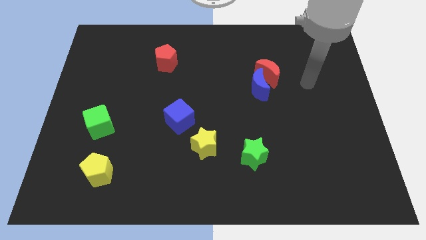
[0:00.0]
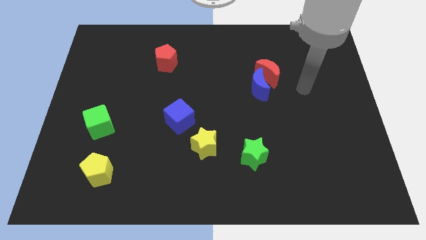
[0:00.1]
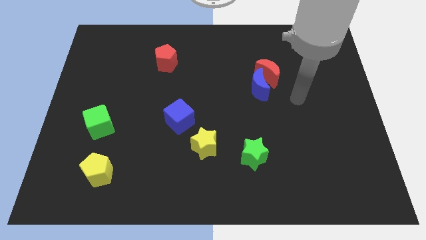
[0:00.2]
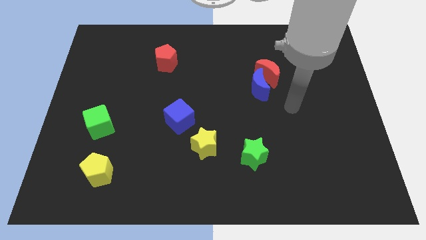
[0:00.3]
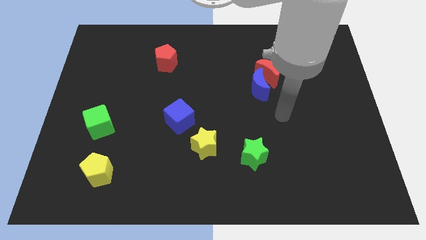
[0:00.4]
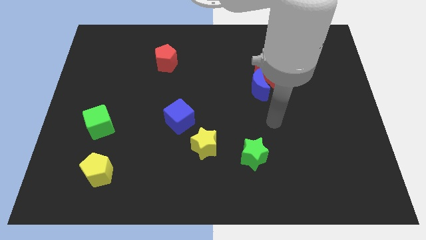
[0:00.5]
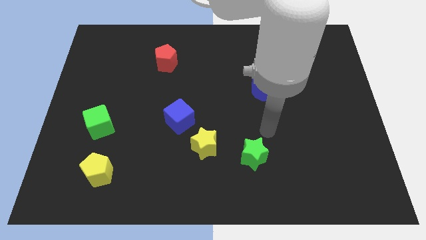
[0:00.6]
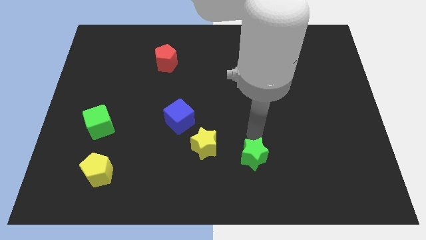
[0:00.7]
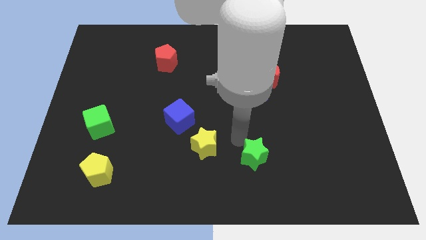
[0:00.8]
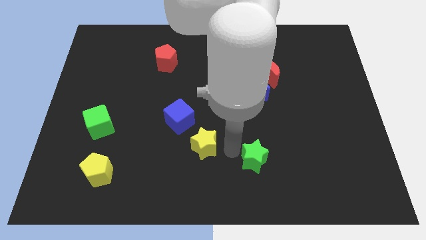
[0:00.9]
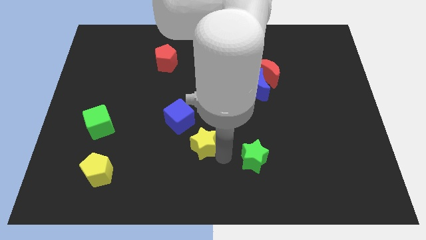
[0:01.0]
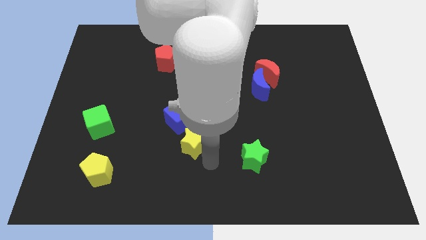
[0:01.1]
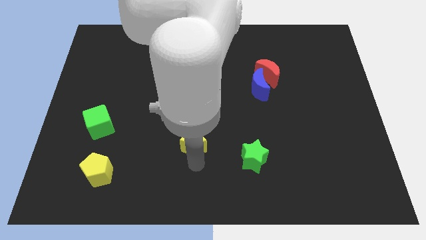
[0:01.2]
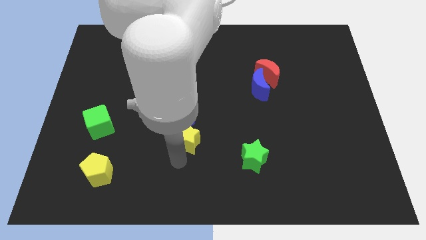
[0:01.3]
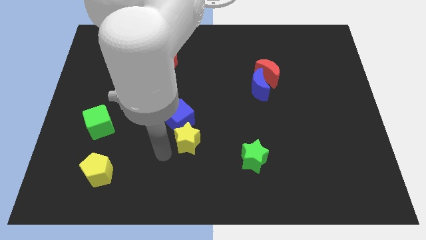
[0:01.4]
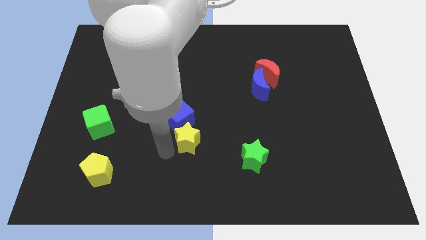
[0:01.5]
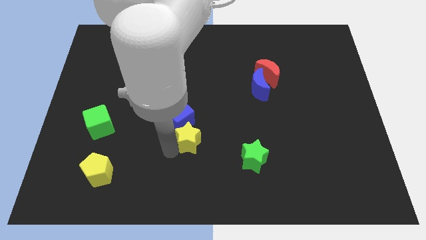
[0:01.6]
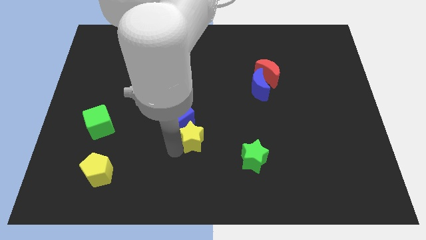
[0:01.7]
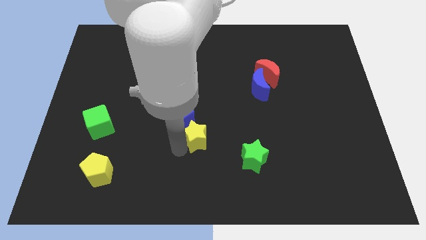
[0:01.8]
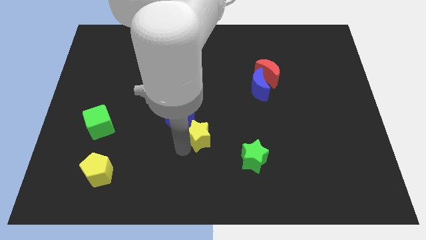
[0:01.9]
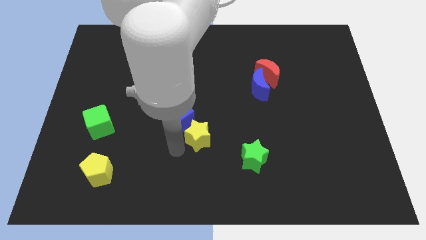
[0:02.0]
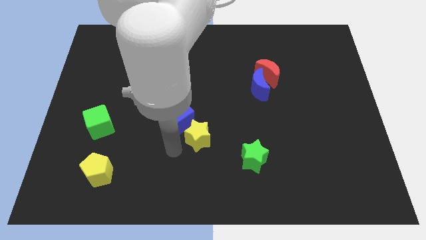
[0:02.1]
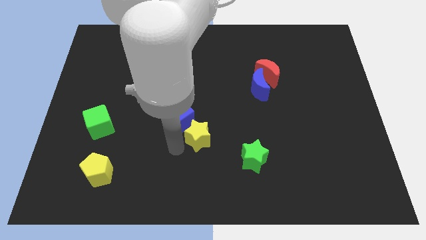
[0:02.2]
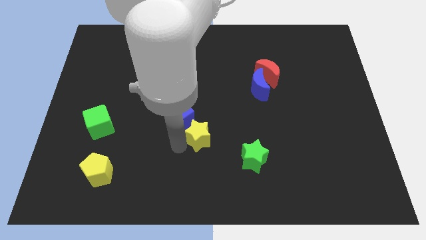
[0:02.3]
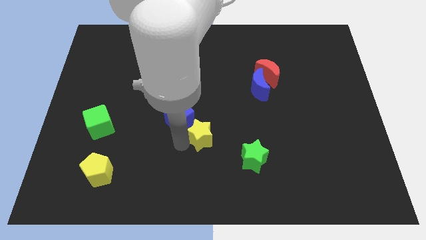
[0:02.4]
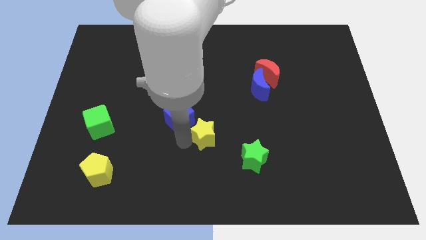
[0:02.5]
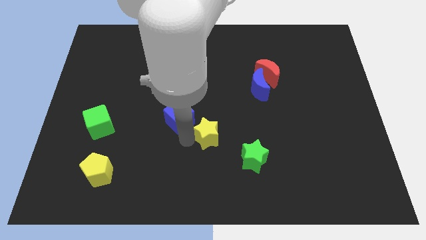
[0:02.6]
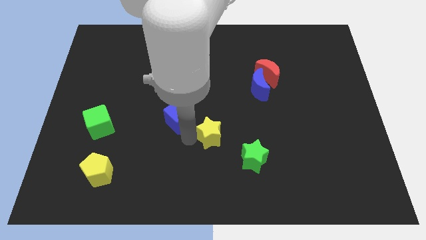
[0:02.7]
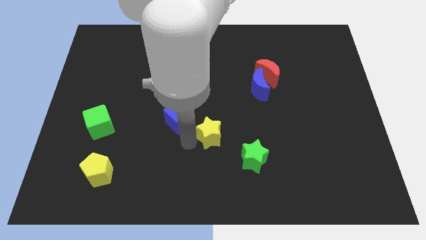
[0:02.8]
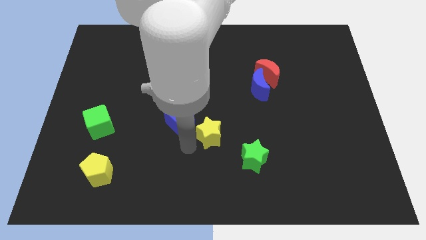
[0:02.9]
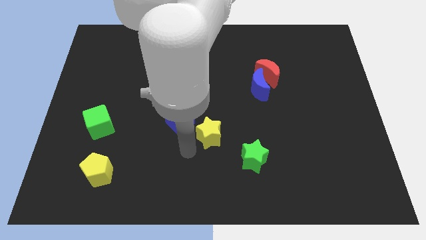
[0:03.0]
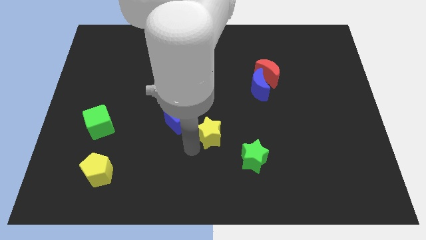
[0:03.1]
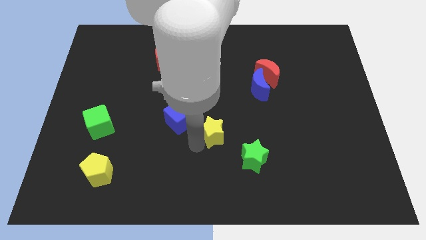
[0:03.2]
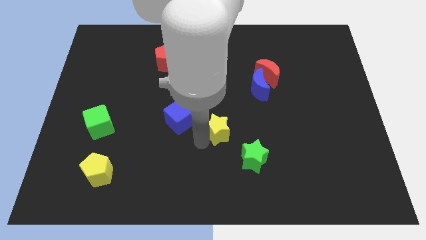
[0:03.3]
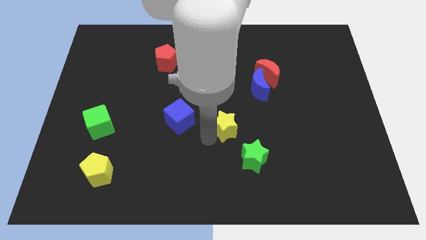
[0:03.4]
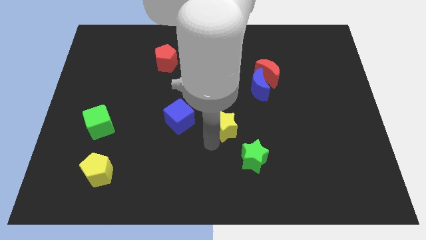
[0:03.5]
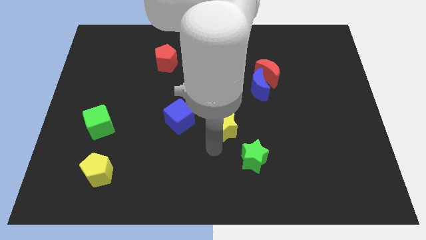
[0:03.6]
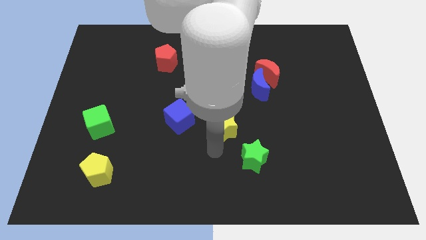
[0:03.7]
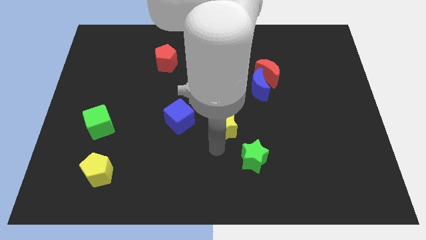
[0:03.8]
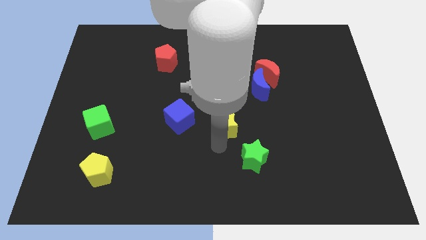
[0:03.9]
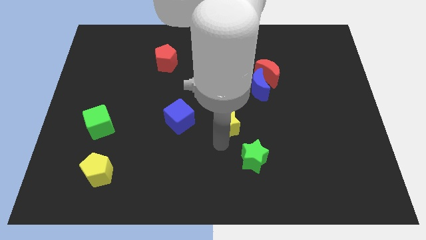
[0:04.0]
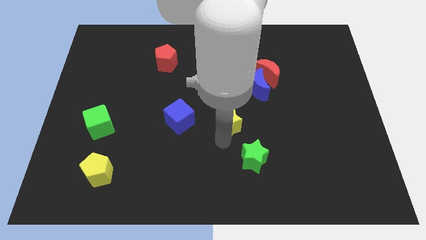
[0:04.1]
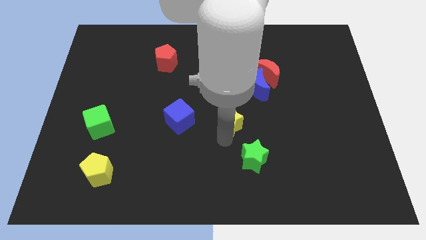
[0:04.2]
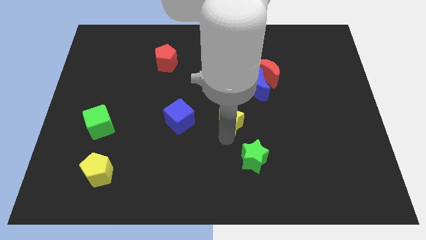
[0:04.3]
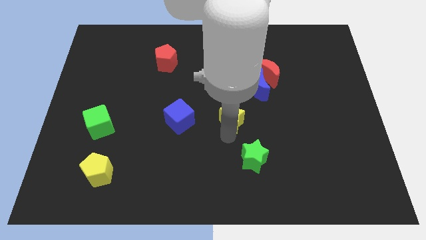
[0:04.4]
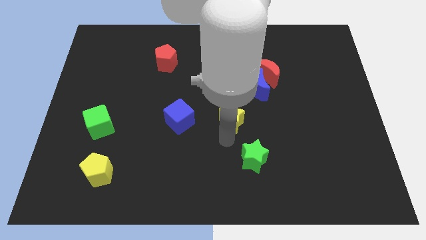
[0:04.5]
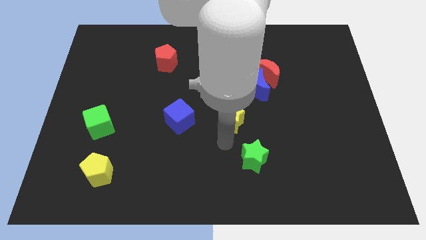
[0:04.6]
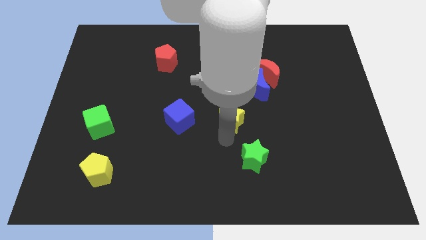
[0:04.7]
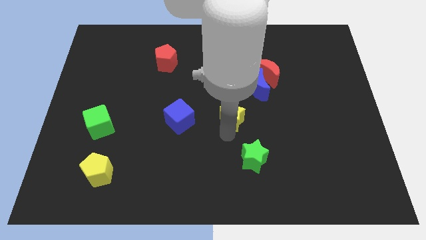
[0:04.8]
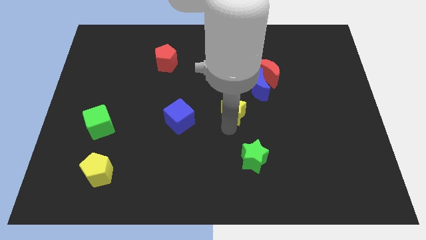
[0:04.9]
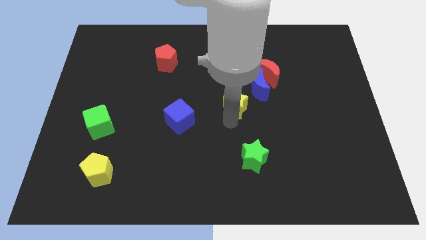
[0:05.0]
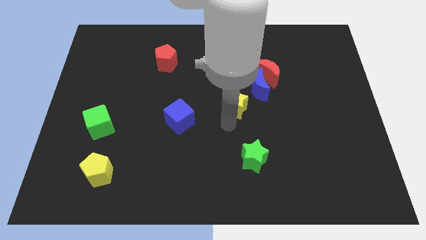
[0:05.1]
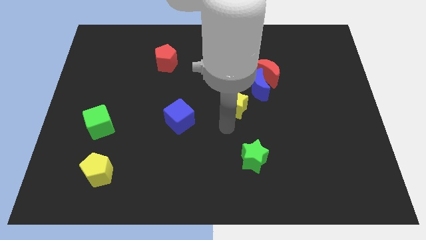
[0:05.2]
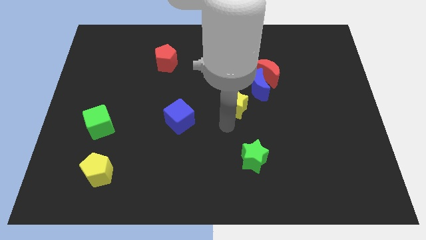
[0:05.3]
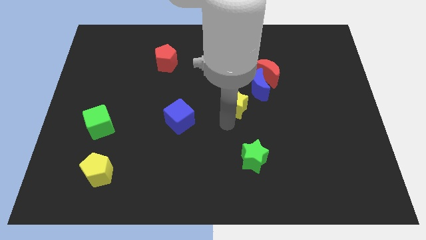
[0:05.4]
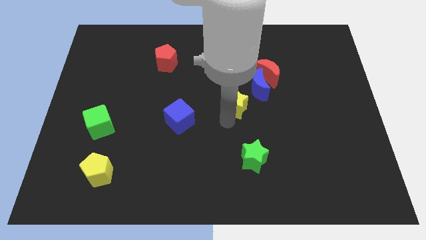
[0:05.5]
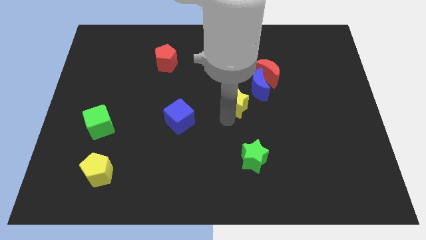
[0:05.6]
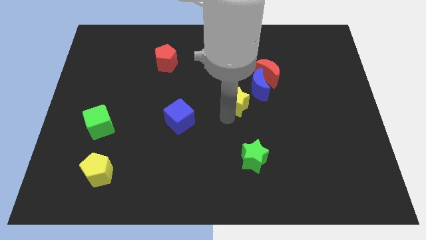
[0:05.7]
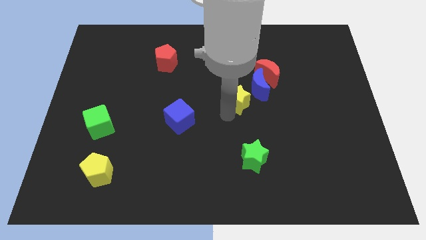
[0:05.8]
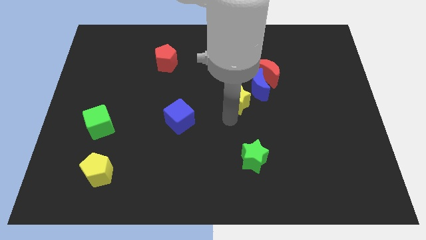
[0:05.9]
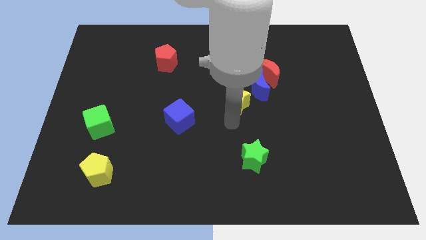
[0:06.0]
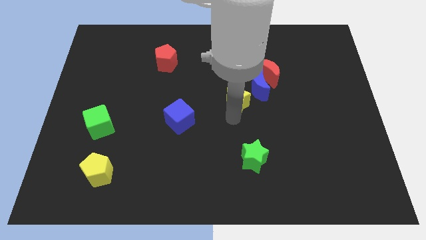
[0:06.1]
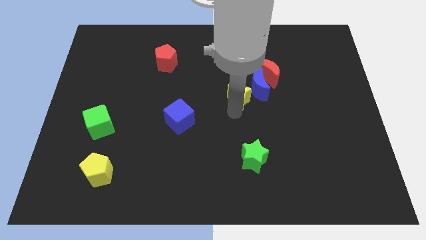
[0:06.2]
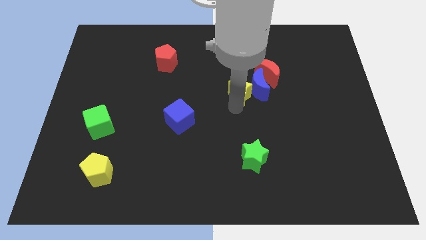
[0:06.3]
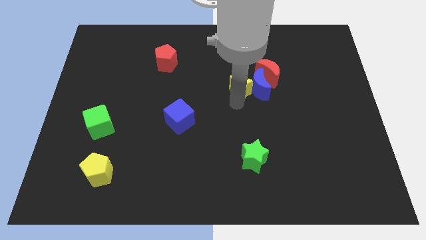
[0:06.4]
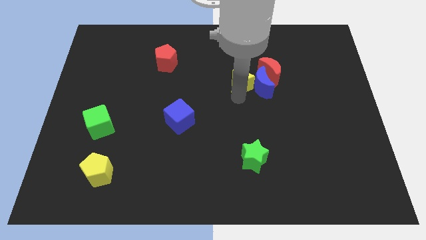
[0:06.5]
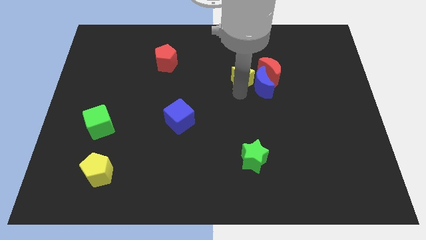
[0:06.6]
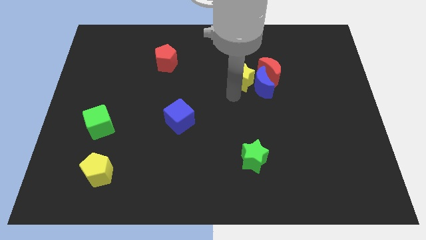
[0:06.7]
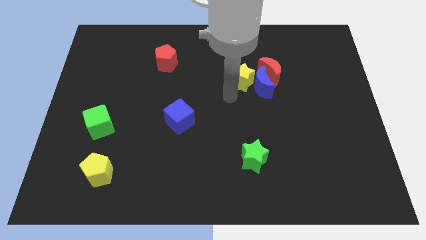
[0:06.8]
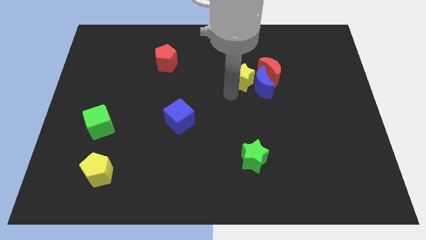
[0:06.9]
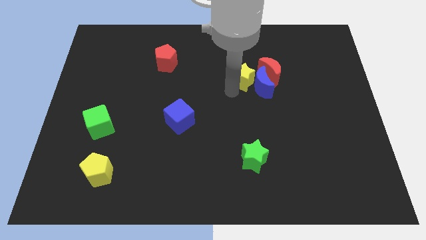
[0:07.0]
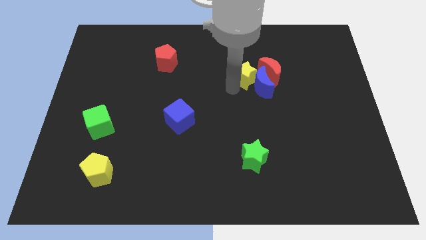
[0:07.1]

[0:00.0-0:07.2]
put the yellow star above the blue moon

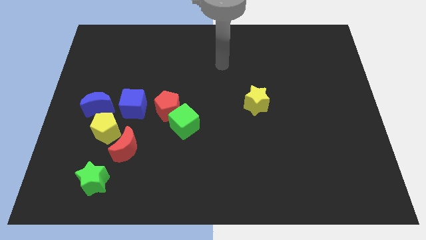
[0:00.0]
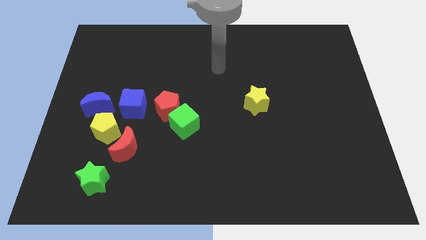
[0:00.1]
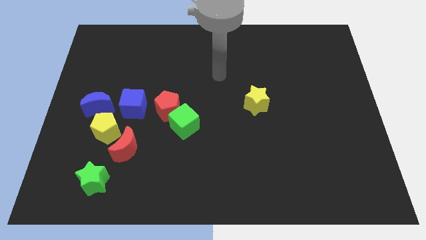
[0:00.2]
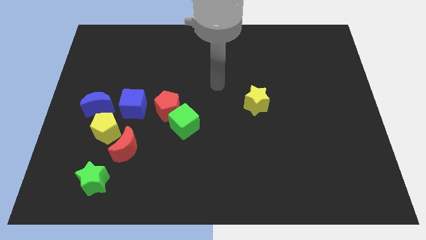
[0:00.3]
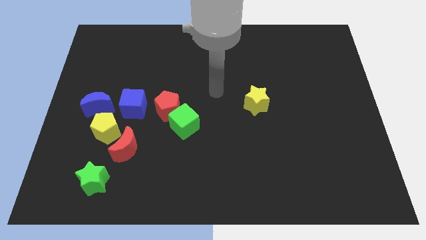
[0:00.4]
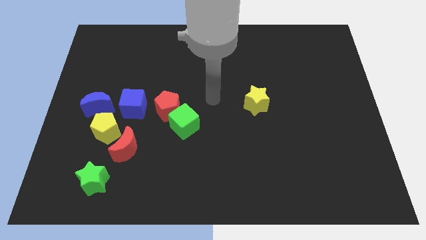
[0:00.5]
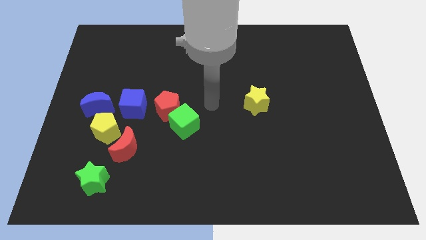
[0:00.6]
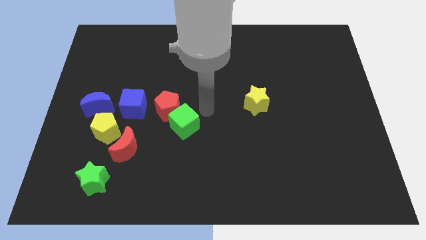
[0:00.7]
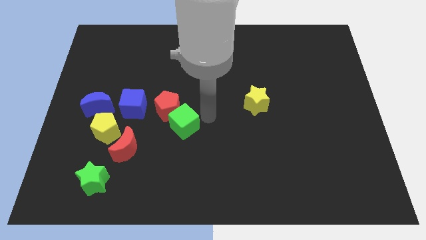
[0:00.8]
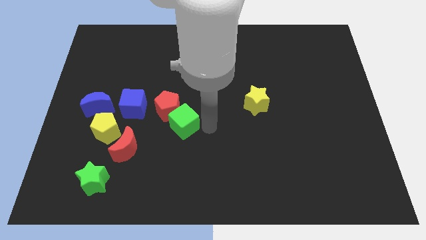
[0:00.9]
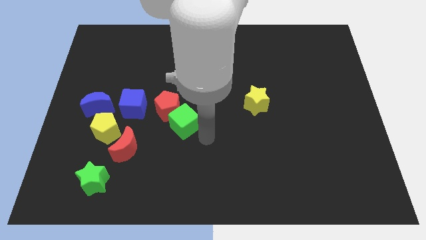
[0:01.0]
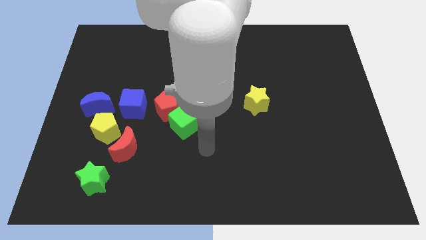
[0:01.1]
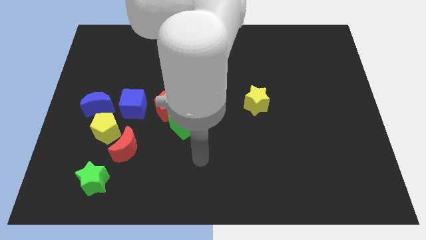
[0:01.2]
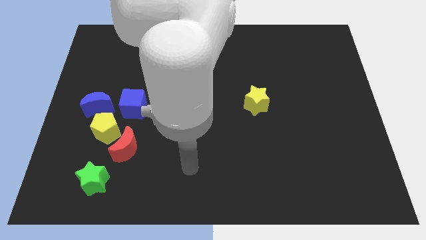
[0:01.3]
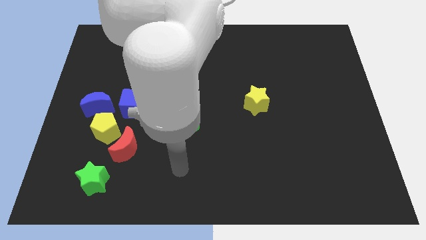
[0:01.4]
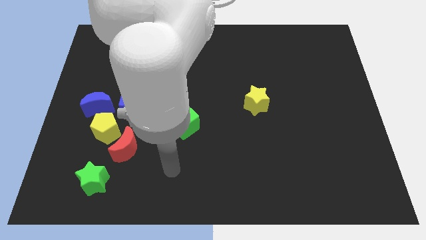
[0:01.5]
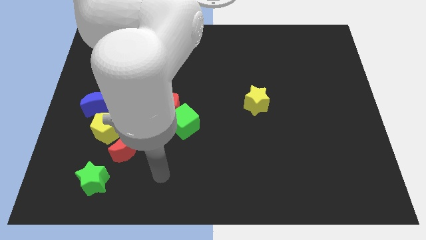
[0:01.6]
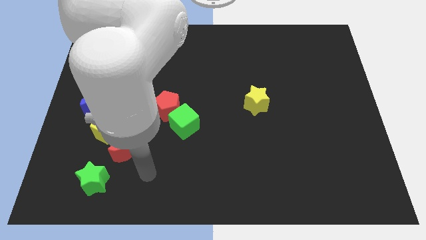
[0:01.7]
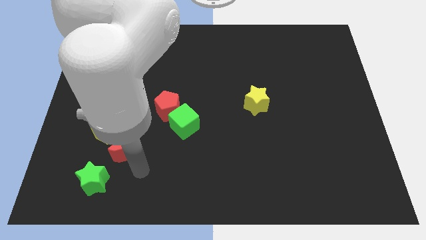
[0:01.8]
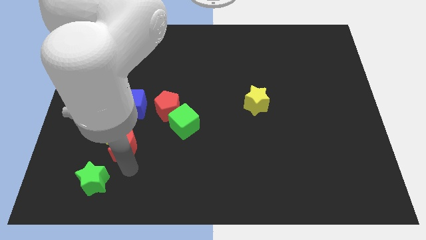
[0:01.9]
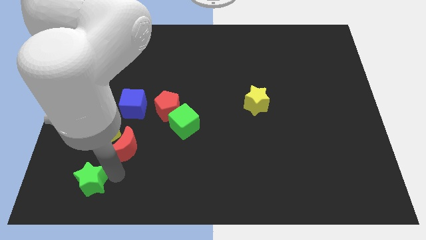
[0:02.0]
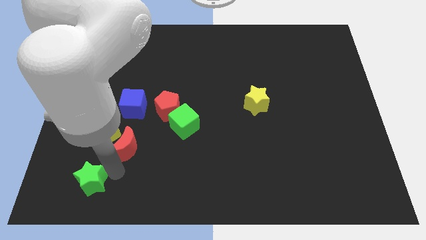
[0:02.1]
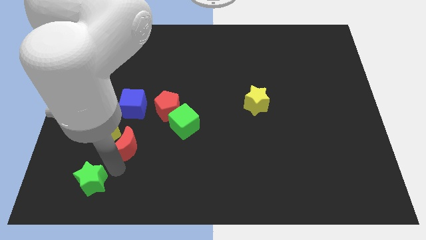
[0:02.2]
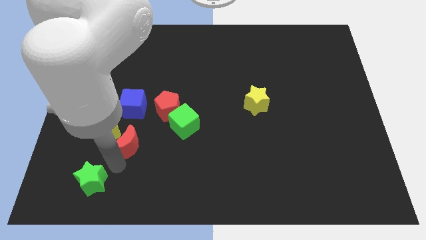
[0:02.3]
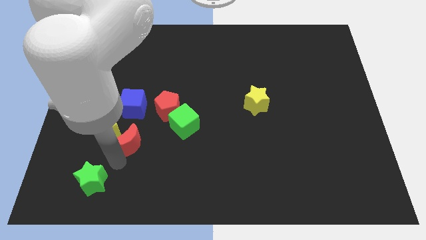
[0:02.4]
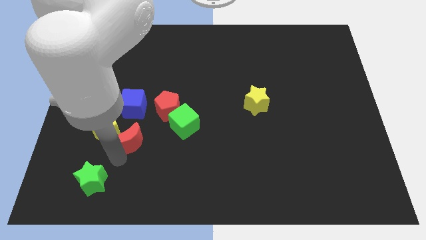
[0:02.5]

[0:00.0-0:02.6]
push the red moon to the left side of the green cube
